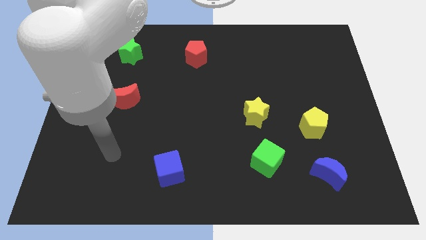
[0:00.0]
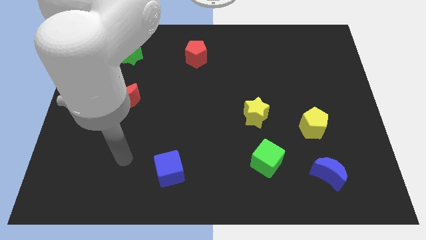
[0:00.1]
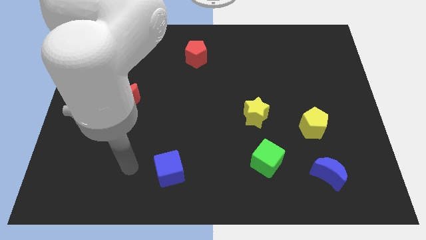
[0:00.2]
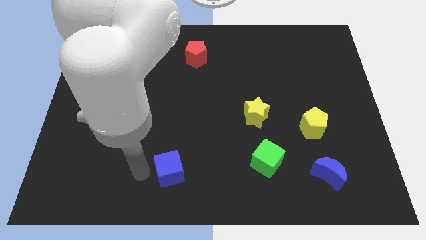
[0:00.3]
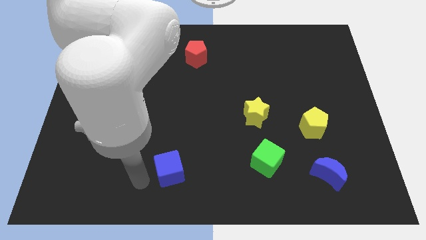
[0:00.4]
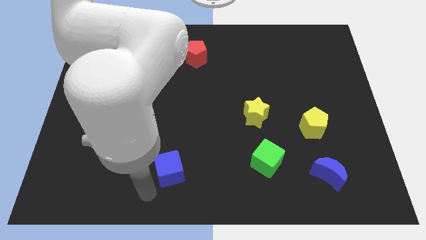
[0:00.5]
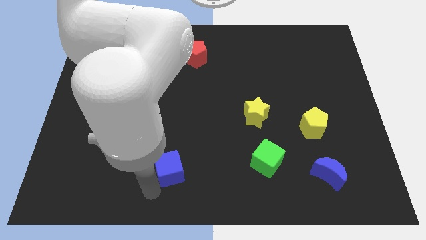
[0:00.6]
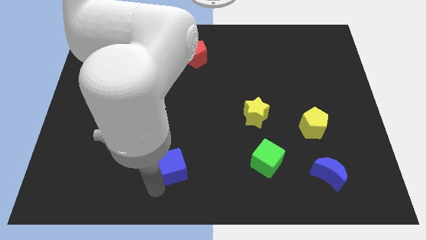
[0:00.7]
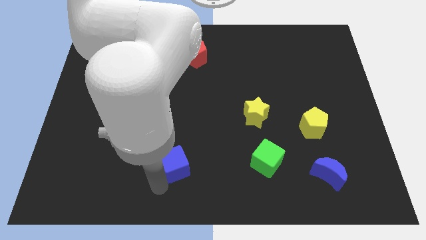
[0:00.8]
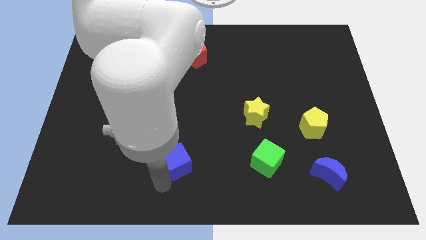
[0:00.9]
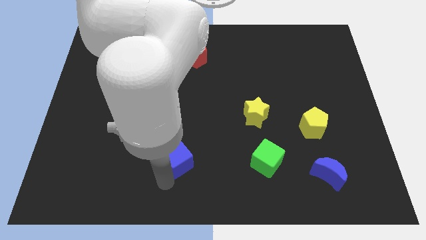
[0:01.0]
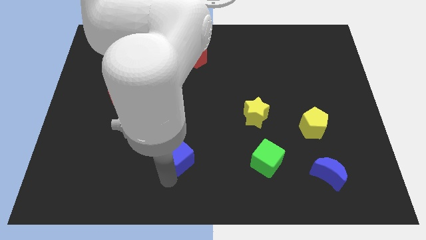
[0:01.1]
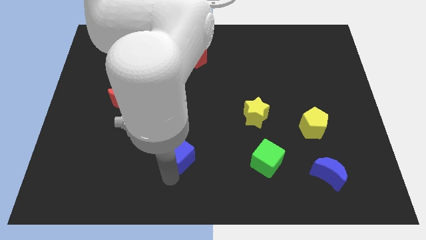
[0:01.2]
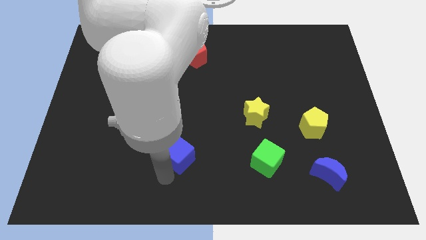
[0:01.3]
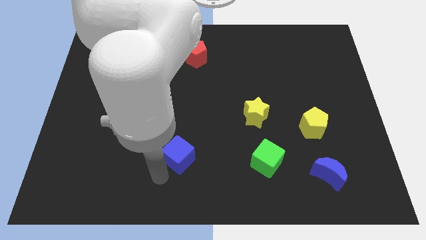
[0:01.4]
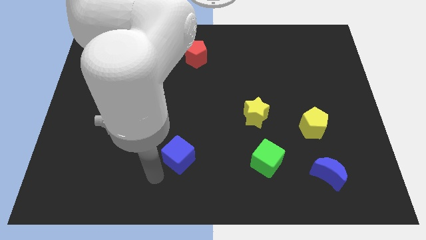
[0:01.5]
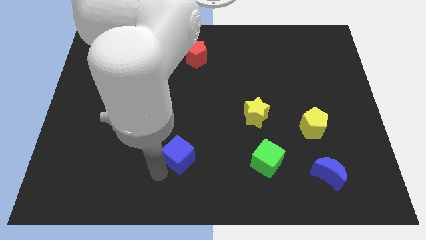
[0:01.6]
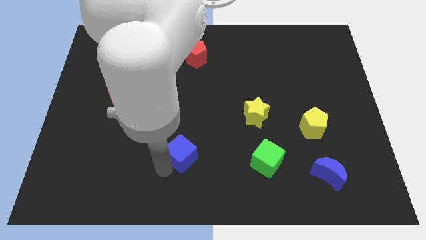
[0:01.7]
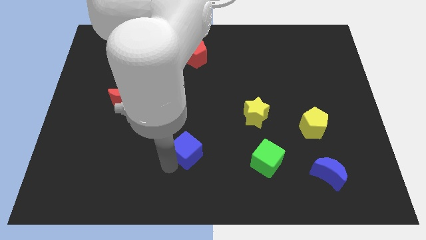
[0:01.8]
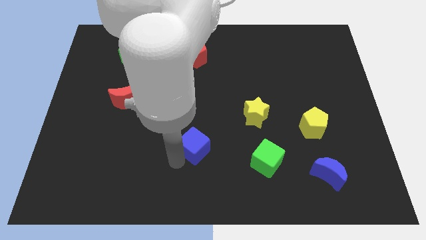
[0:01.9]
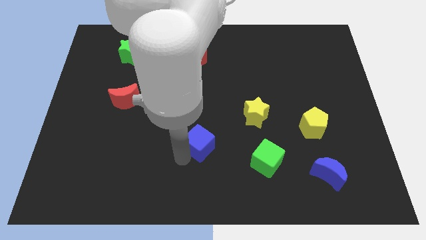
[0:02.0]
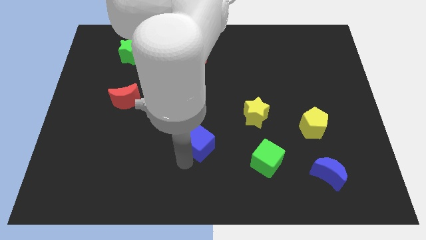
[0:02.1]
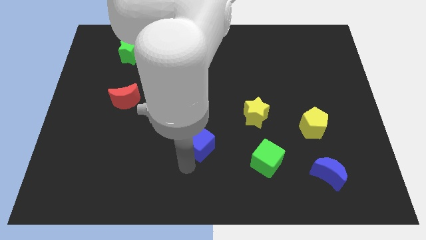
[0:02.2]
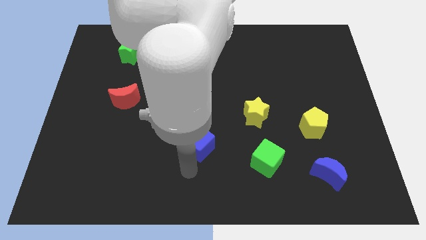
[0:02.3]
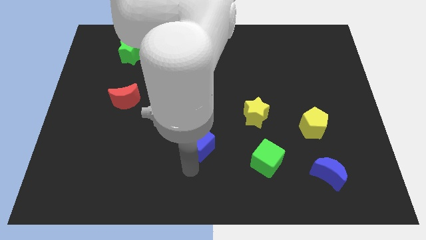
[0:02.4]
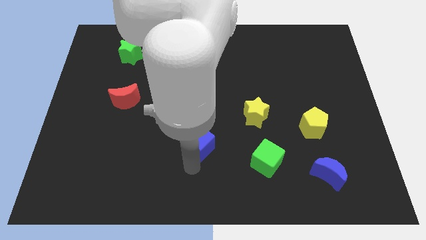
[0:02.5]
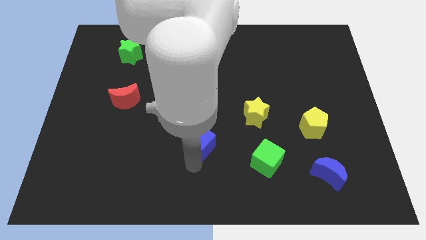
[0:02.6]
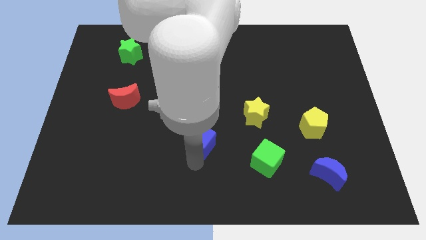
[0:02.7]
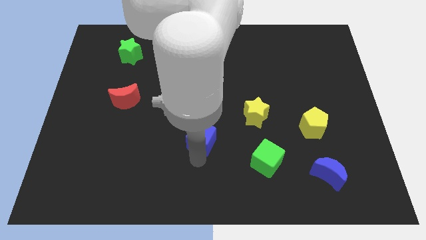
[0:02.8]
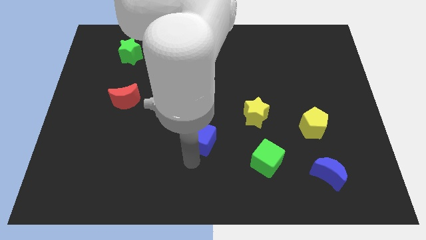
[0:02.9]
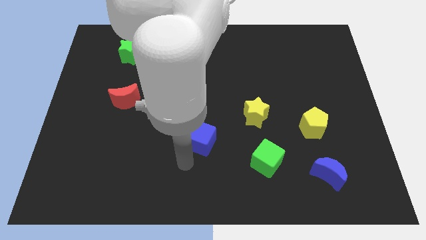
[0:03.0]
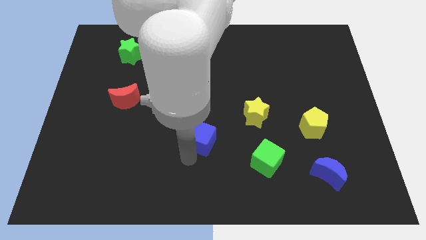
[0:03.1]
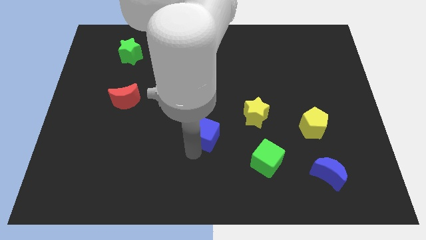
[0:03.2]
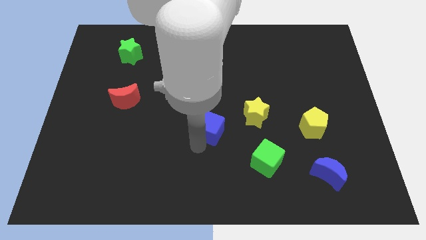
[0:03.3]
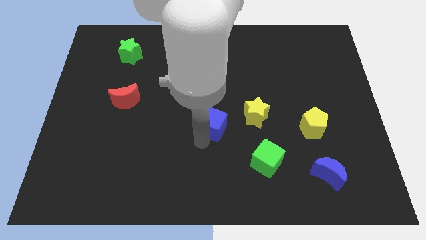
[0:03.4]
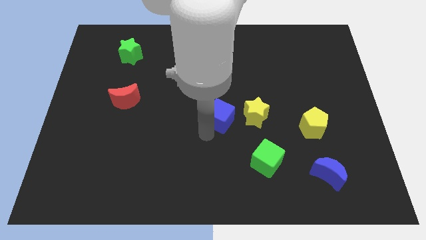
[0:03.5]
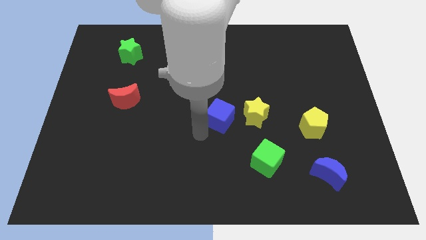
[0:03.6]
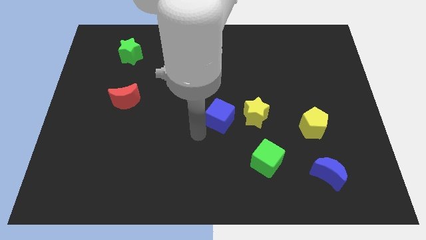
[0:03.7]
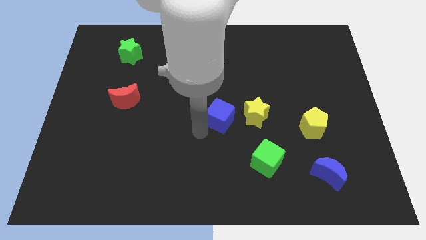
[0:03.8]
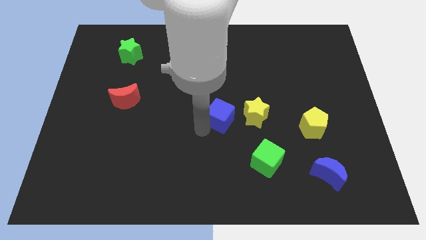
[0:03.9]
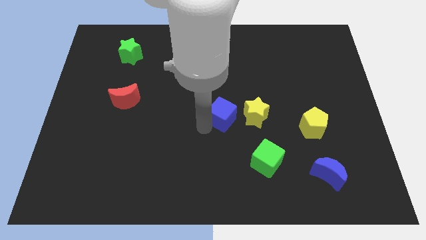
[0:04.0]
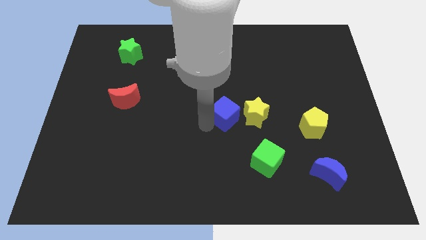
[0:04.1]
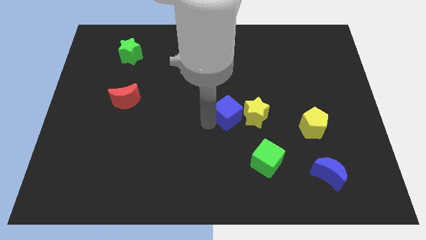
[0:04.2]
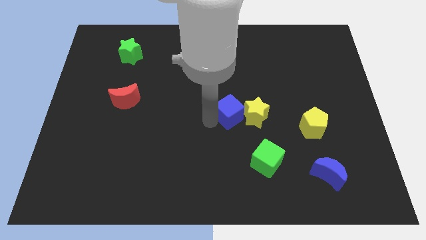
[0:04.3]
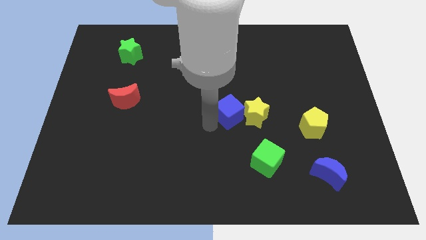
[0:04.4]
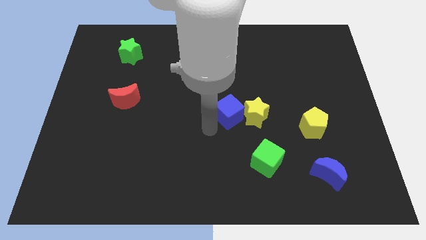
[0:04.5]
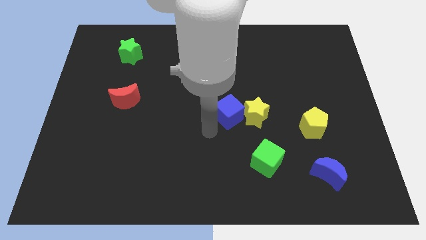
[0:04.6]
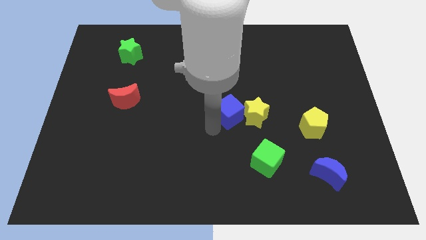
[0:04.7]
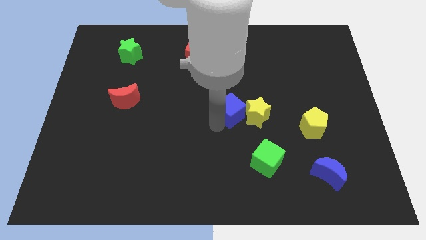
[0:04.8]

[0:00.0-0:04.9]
push the blue cube up and right diagonally

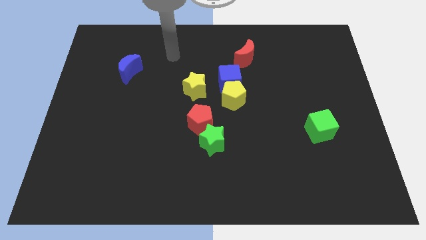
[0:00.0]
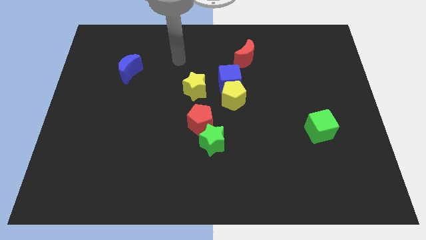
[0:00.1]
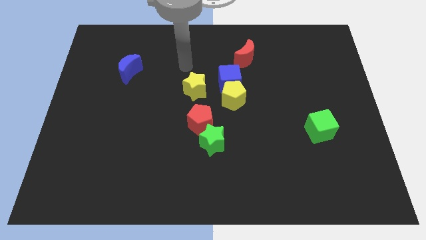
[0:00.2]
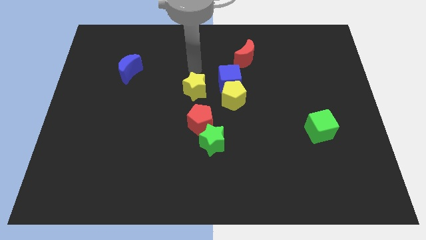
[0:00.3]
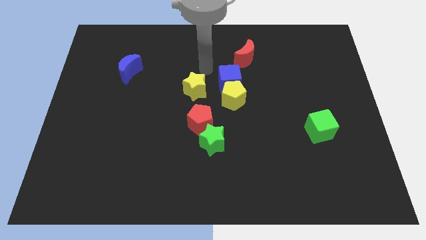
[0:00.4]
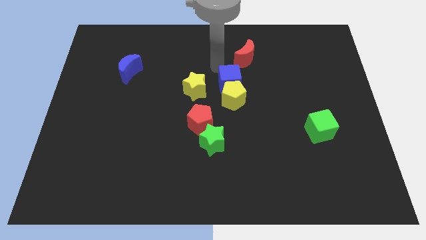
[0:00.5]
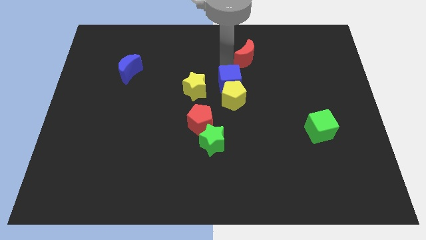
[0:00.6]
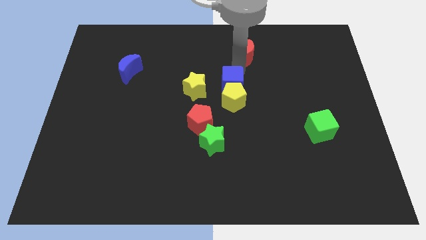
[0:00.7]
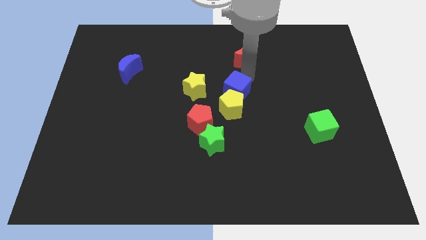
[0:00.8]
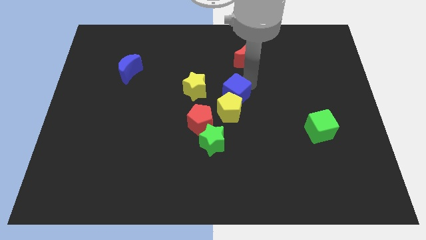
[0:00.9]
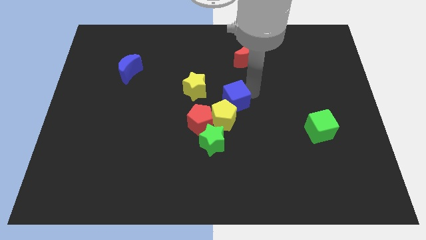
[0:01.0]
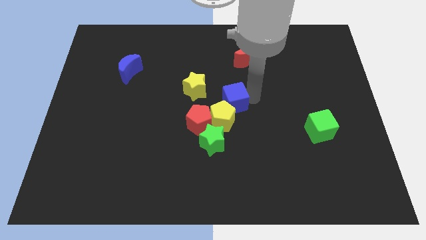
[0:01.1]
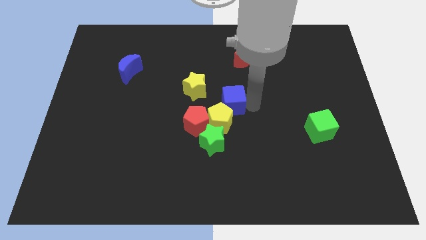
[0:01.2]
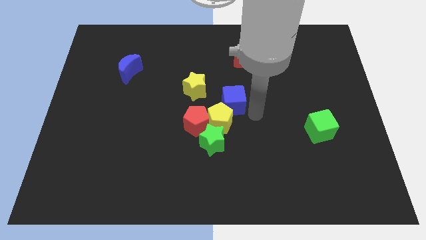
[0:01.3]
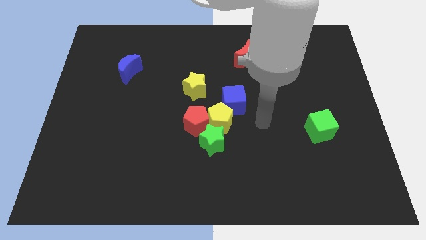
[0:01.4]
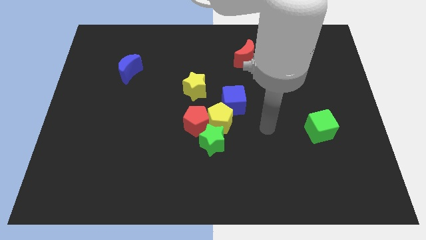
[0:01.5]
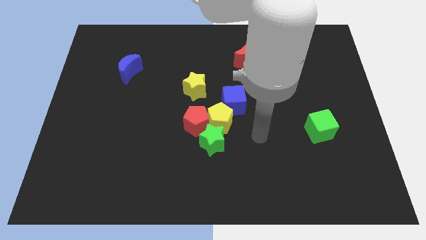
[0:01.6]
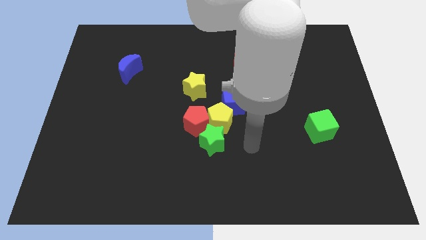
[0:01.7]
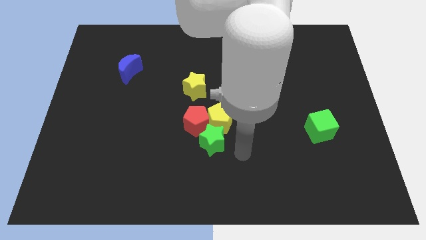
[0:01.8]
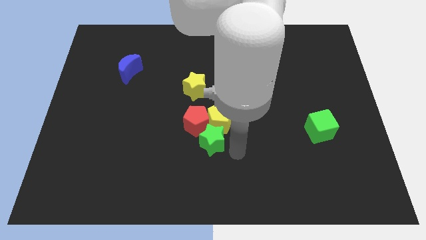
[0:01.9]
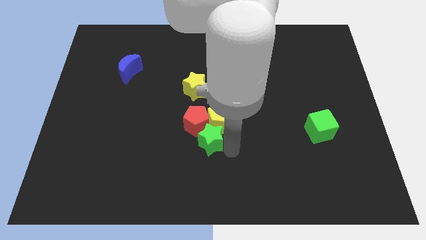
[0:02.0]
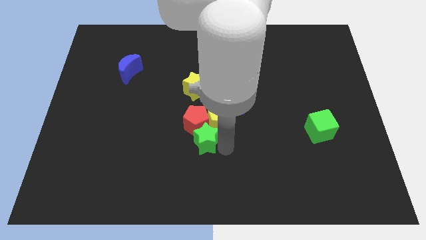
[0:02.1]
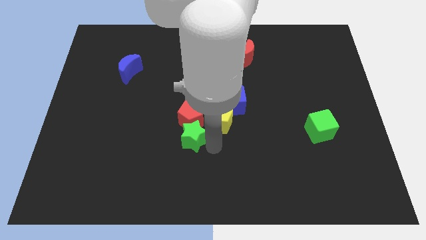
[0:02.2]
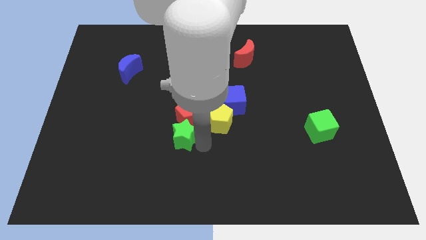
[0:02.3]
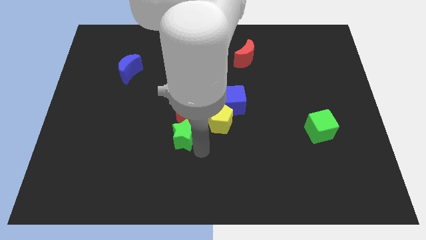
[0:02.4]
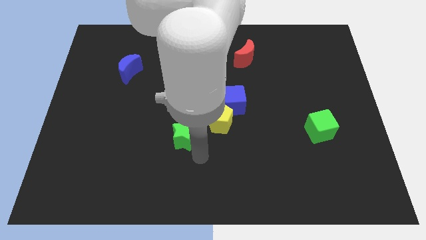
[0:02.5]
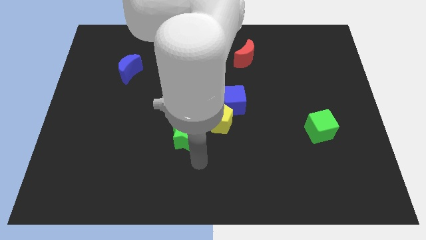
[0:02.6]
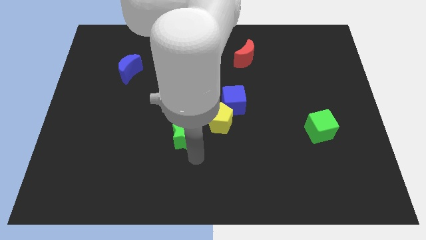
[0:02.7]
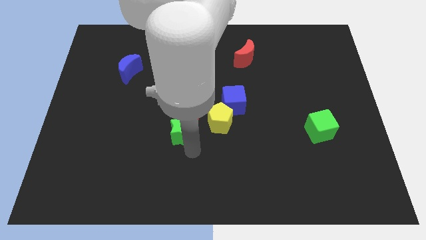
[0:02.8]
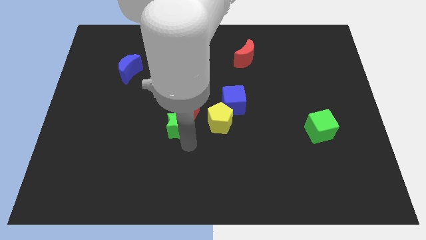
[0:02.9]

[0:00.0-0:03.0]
move the green star diagonally up and to the left somewhat

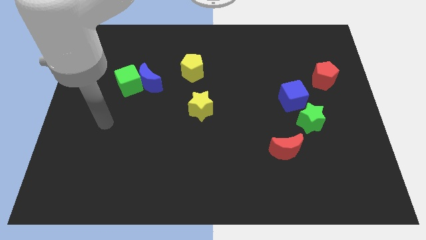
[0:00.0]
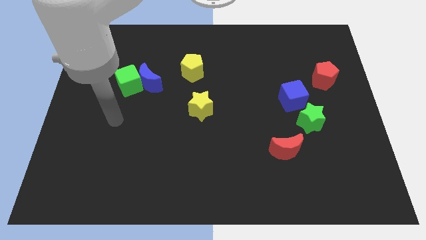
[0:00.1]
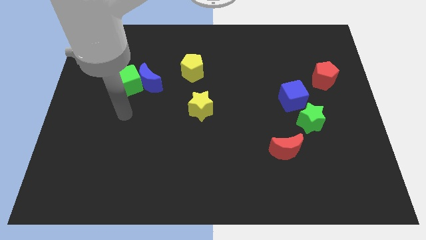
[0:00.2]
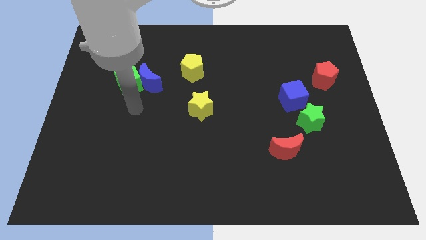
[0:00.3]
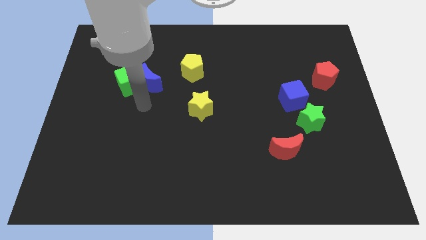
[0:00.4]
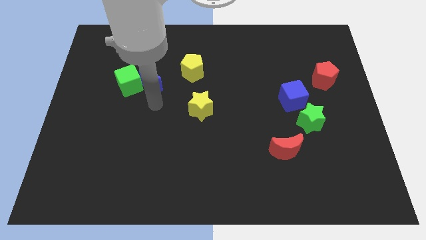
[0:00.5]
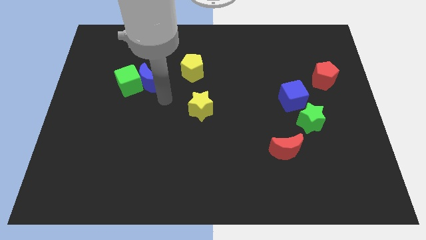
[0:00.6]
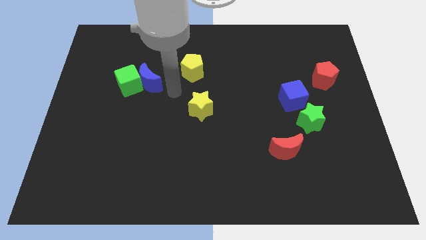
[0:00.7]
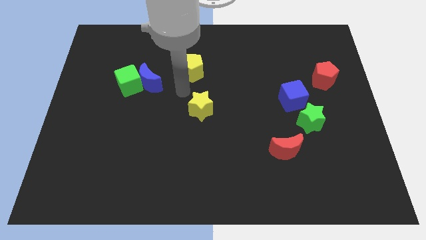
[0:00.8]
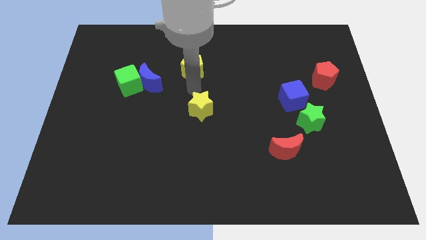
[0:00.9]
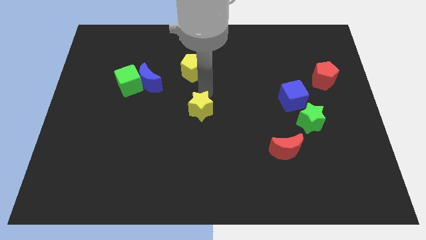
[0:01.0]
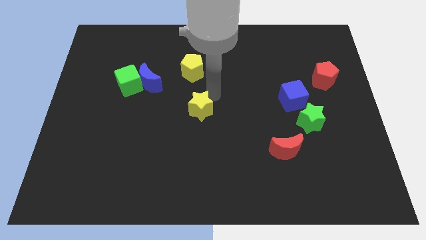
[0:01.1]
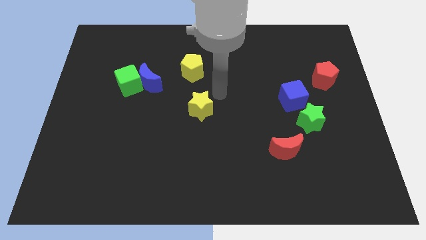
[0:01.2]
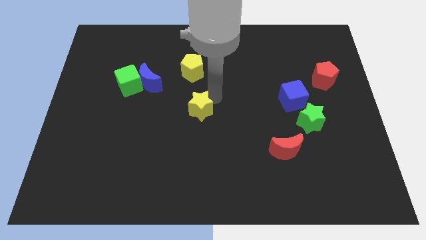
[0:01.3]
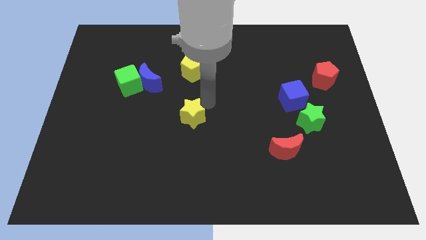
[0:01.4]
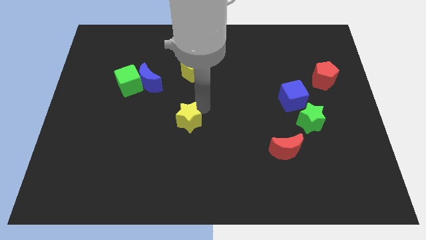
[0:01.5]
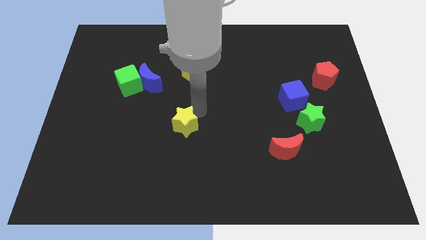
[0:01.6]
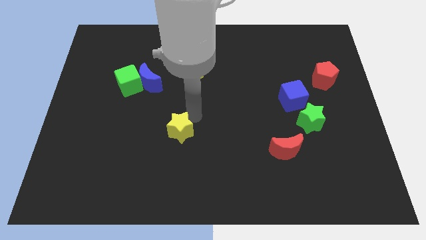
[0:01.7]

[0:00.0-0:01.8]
push the yellow star somewhat down and then to the left
